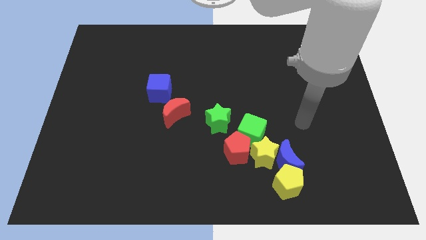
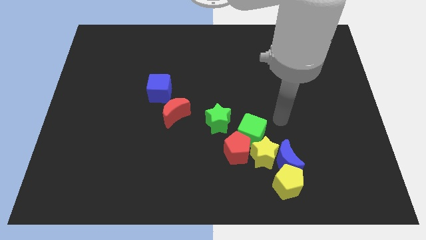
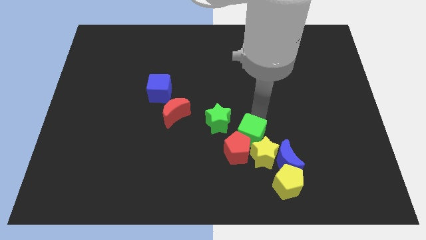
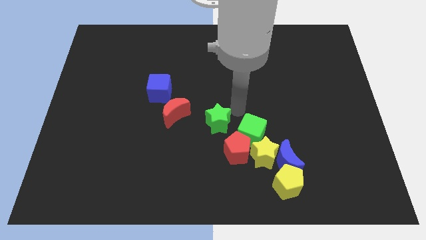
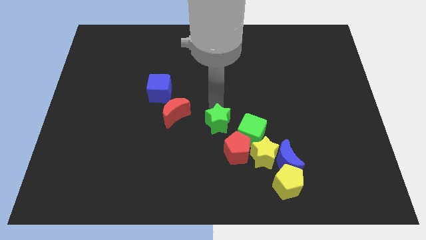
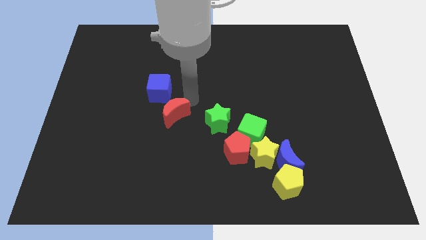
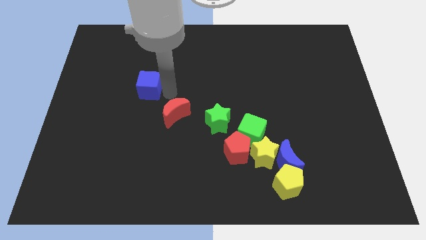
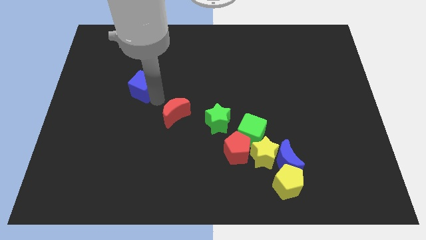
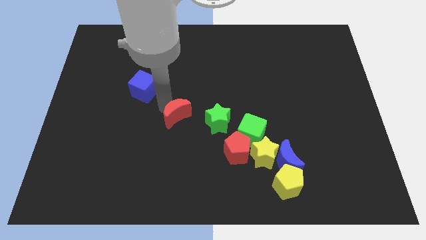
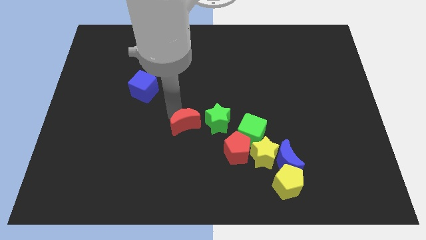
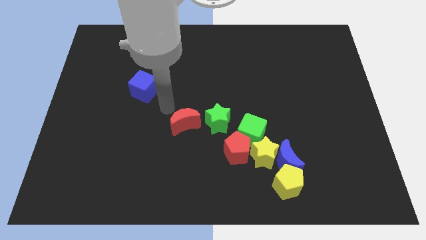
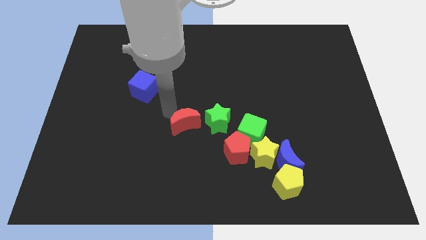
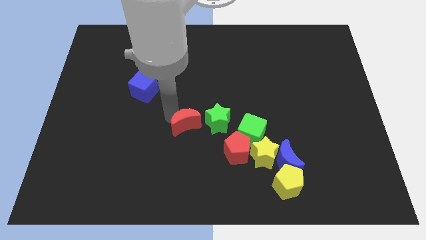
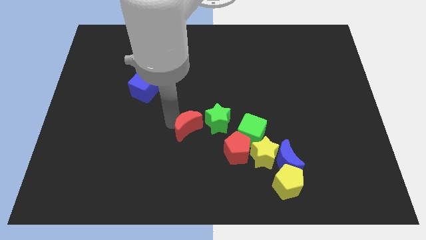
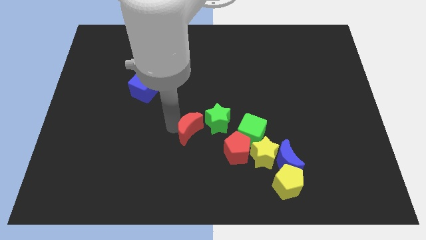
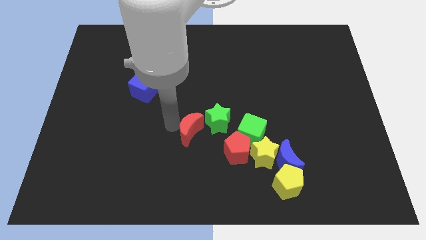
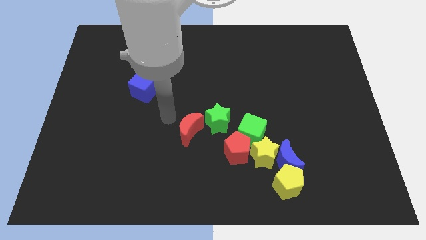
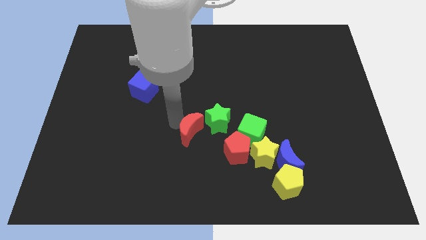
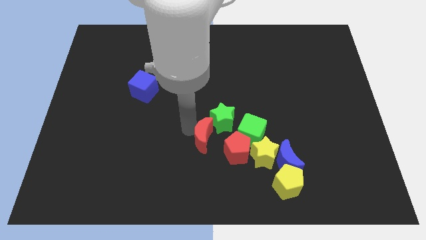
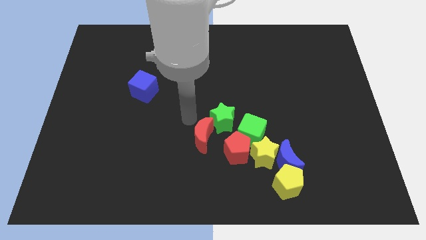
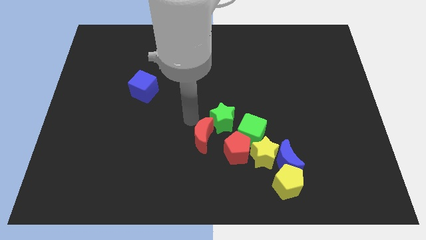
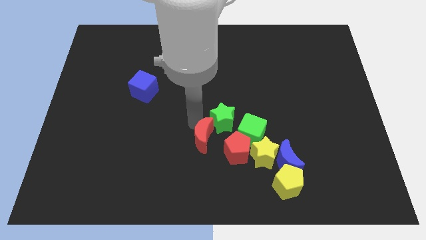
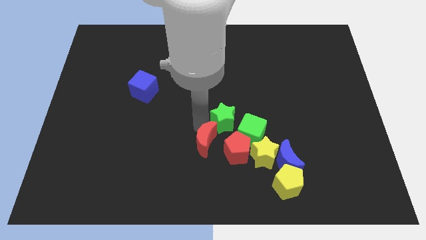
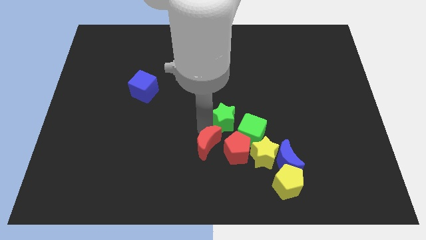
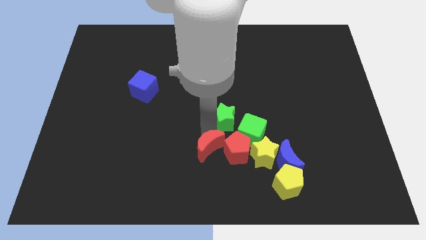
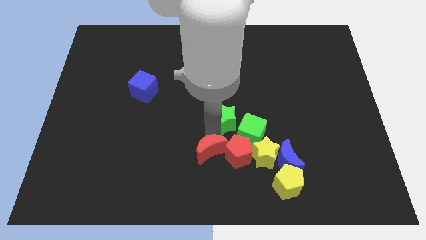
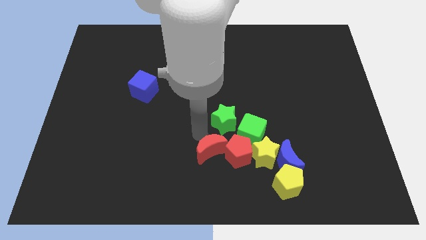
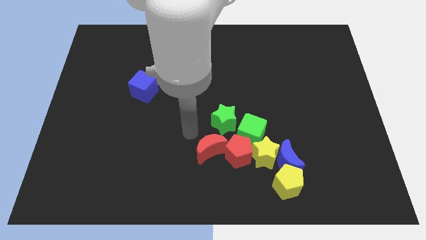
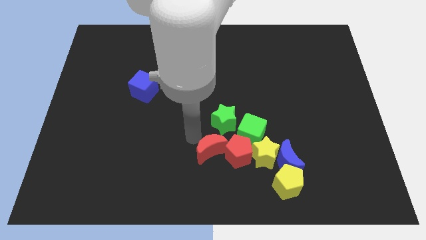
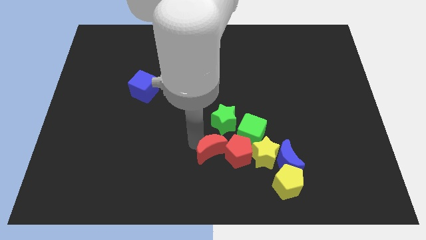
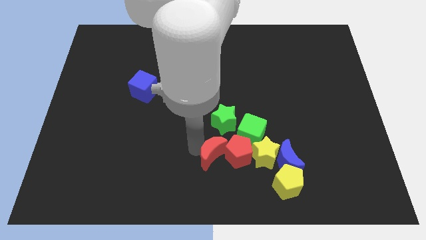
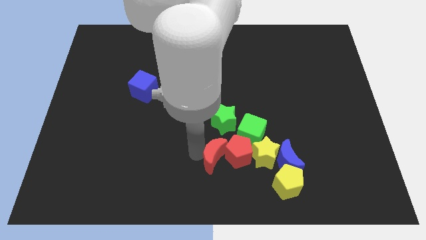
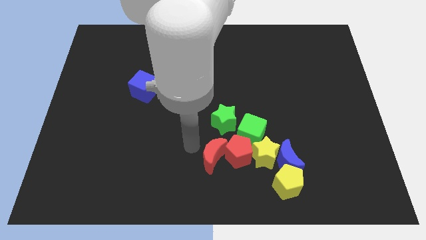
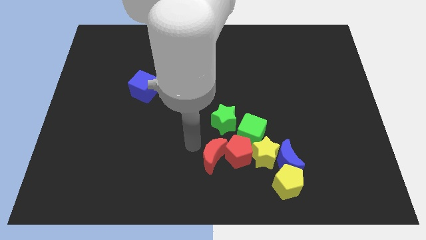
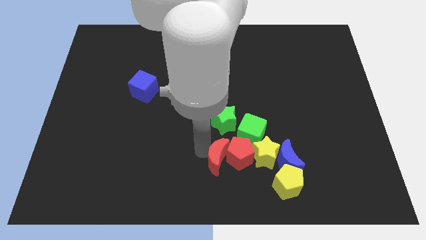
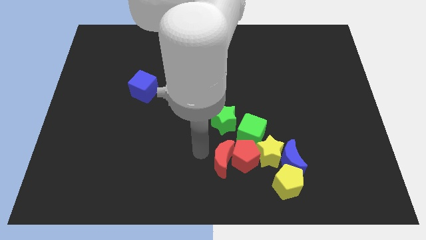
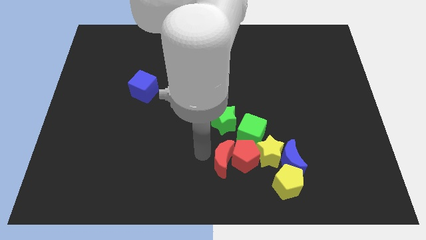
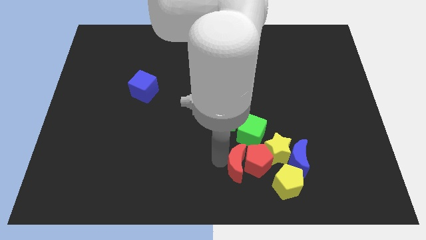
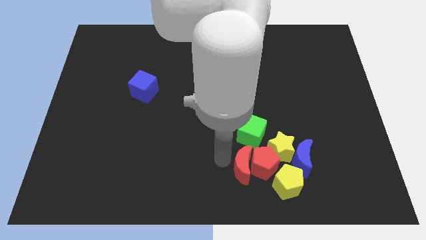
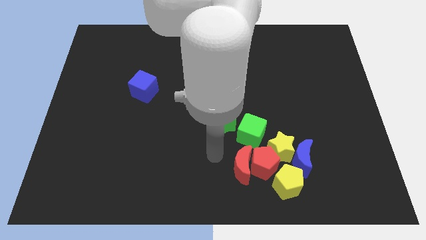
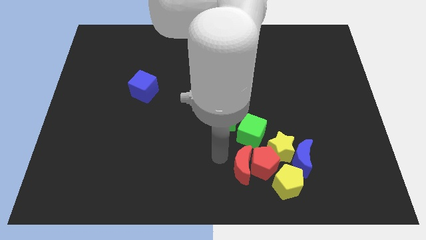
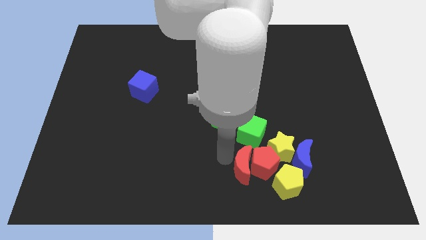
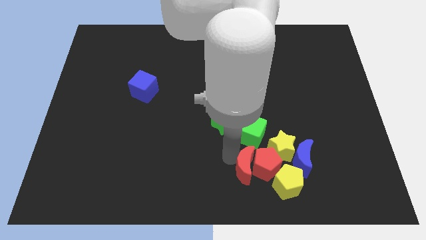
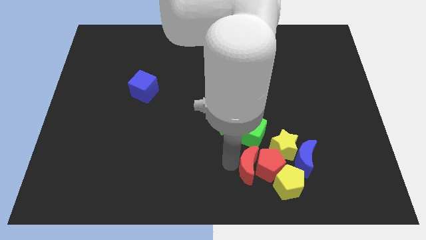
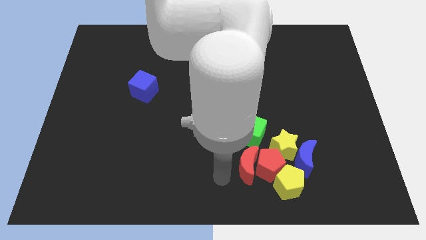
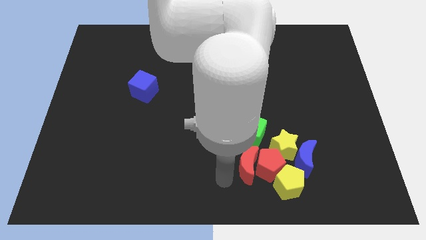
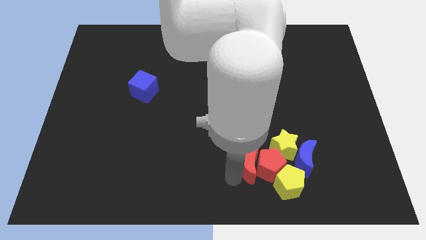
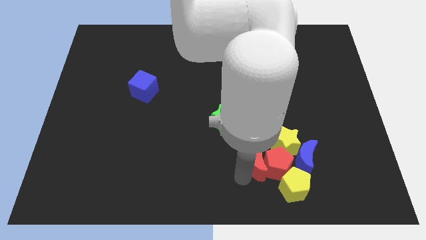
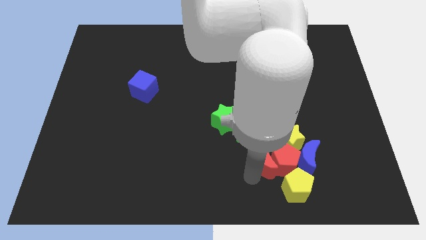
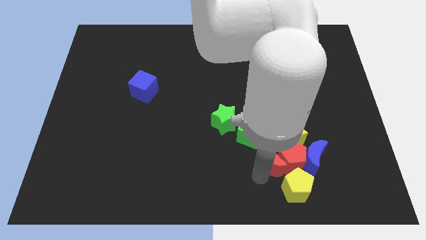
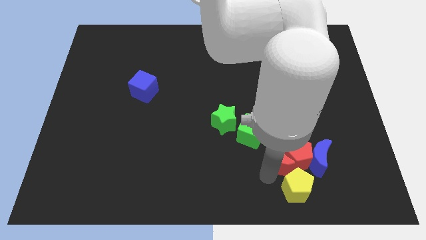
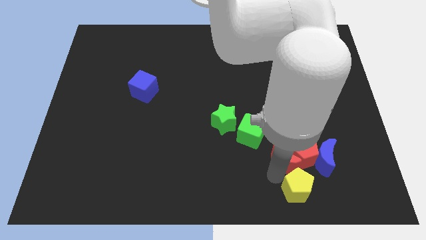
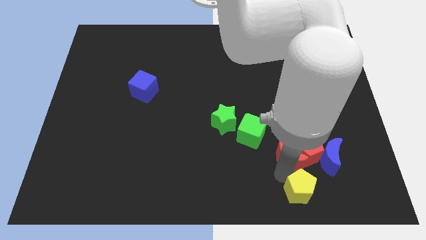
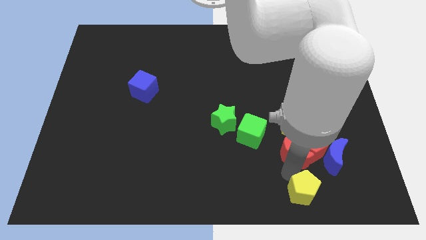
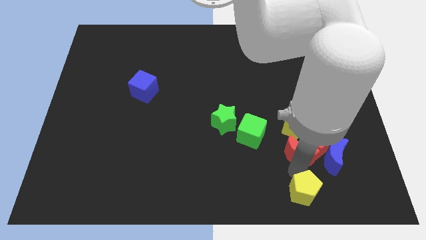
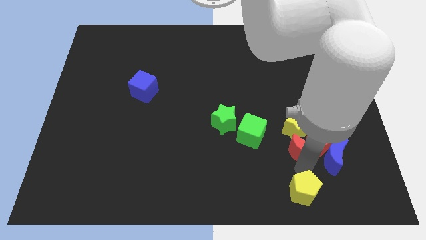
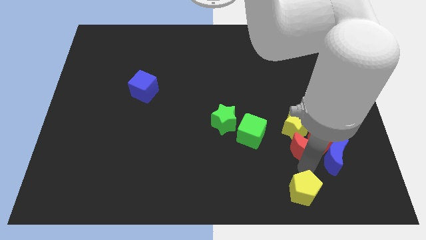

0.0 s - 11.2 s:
move the red moon towards the yellow star

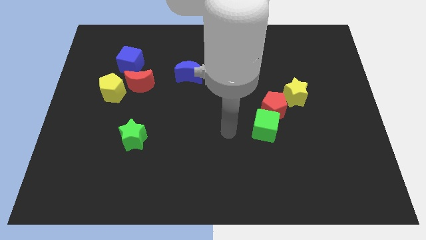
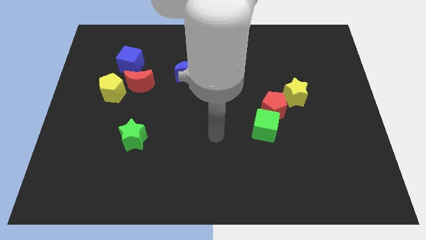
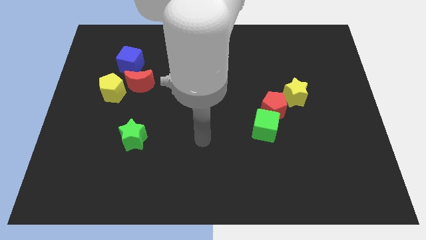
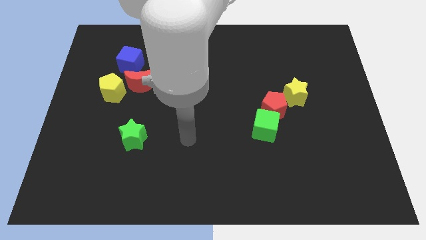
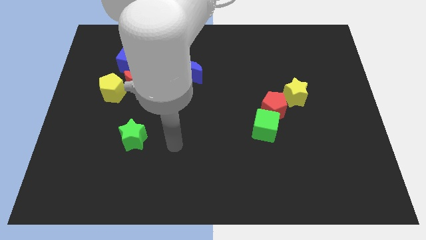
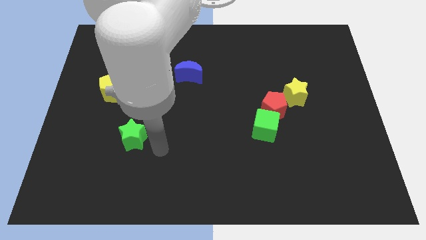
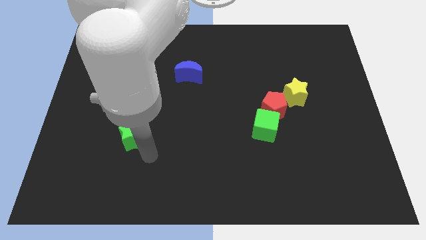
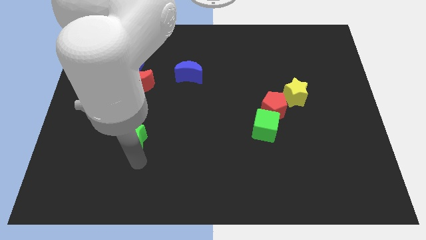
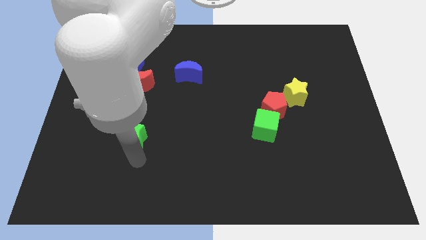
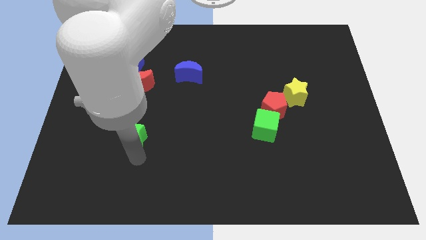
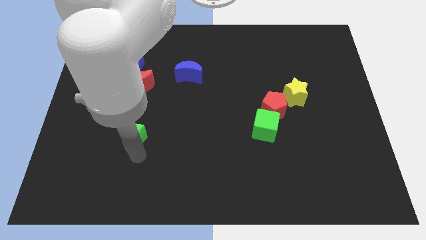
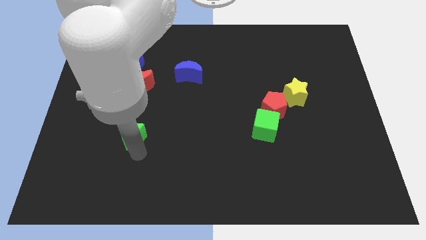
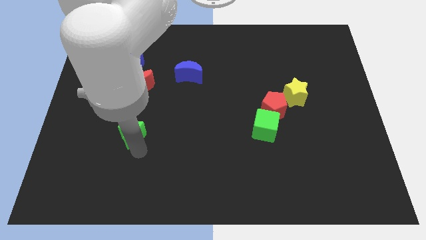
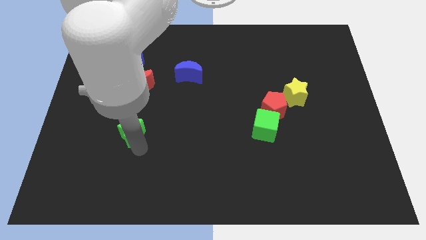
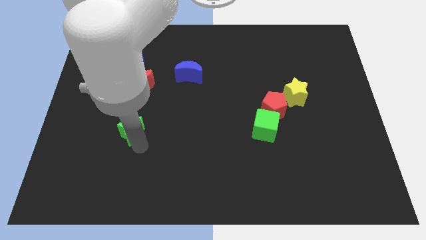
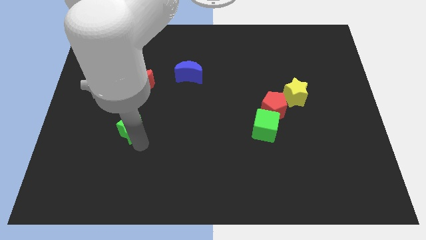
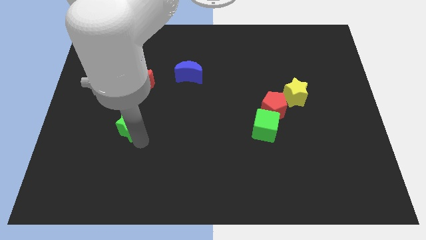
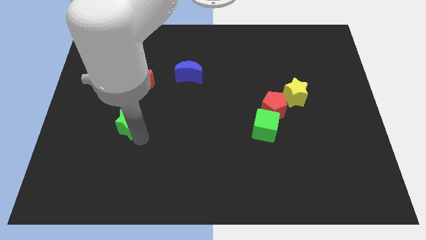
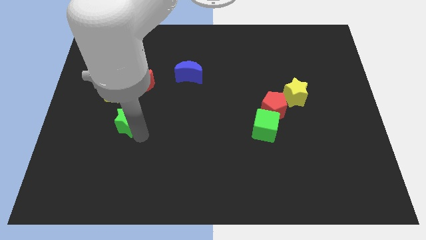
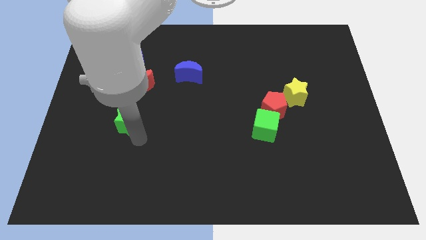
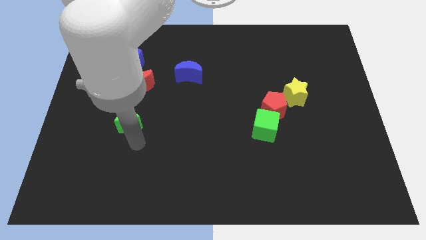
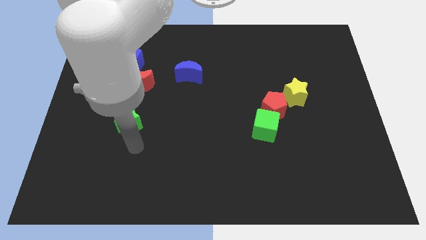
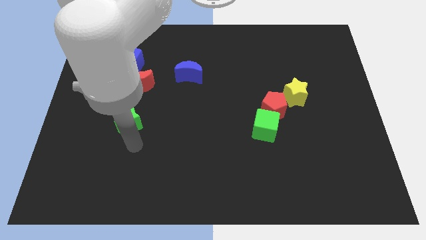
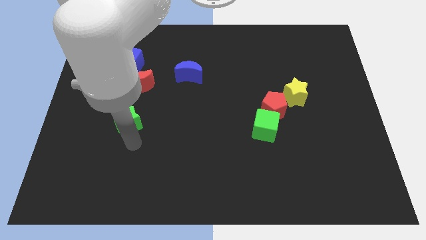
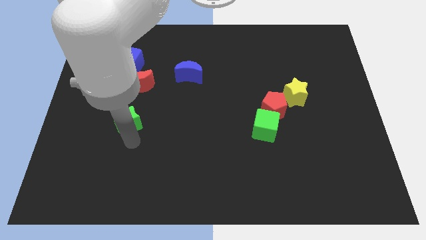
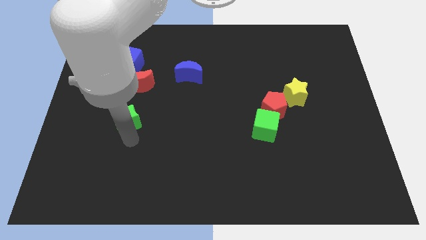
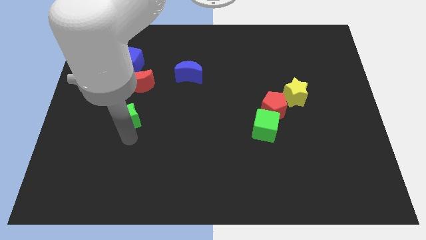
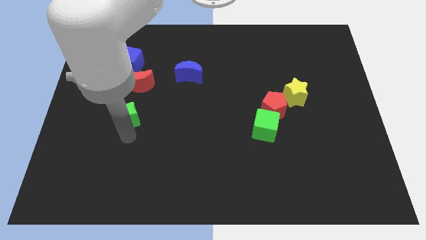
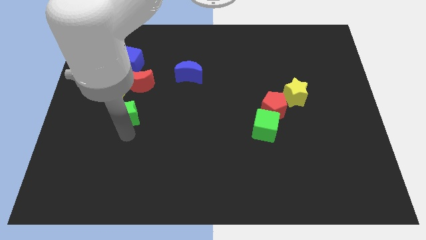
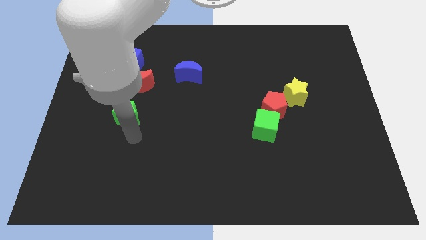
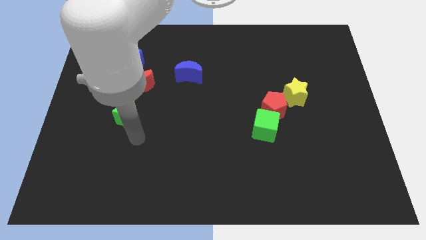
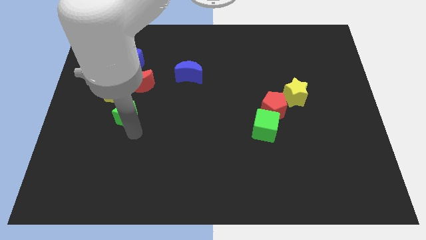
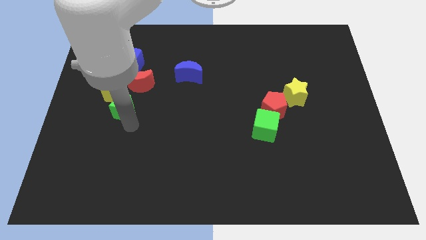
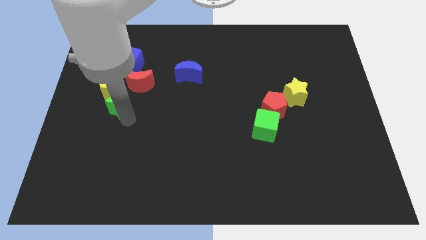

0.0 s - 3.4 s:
move the green star to the yellow pentagon
